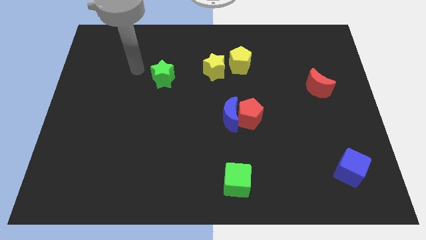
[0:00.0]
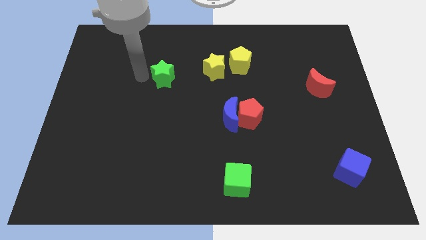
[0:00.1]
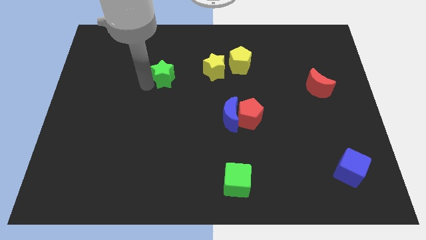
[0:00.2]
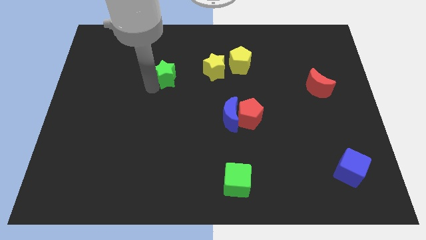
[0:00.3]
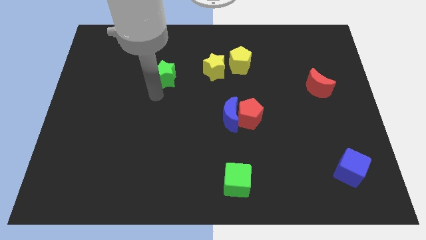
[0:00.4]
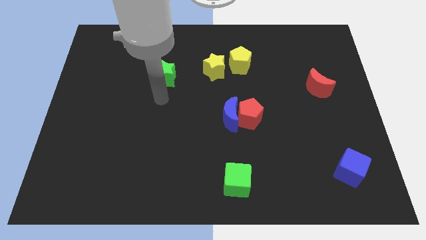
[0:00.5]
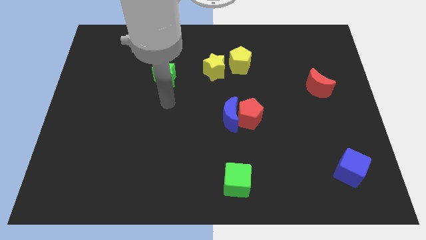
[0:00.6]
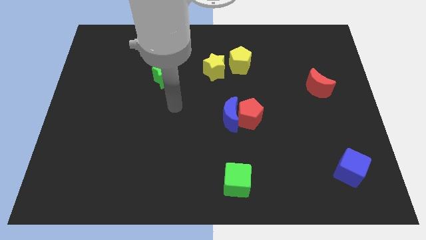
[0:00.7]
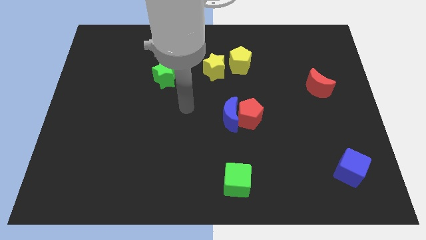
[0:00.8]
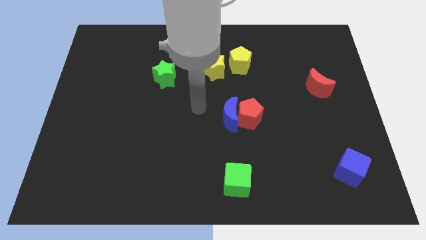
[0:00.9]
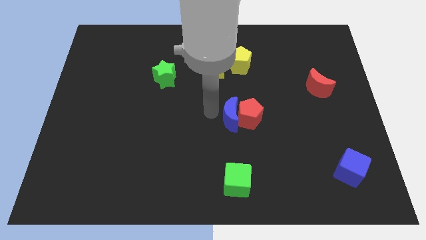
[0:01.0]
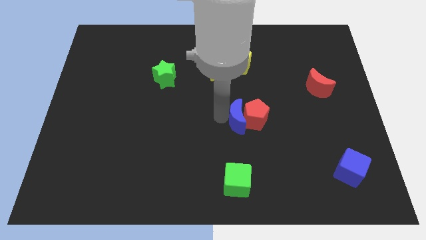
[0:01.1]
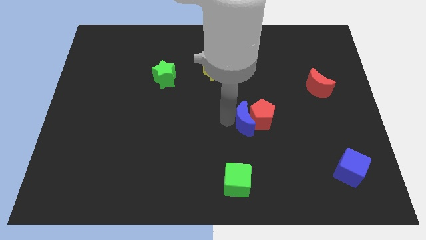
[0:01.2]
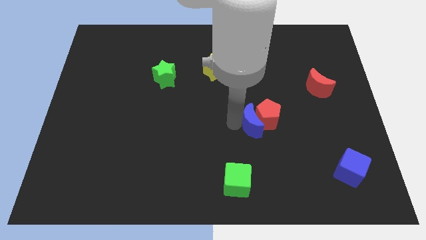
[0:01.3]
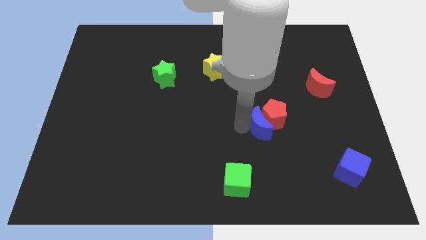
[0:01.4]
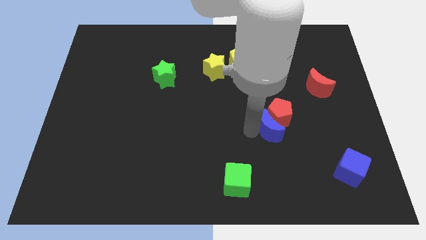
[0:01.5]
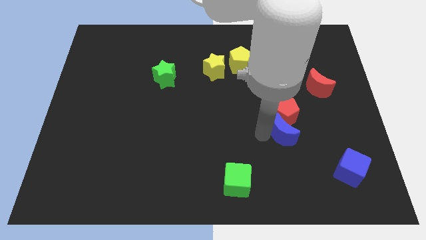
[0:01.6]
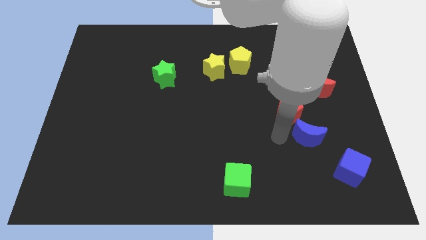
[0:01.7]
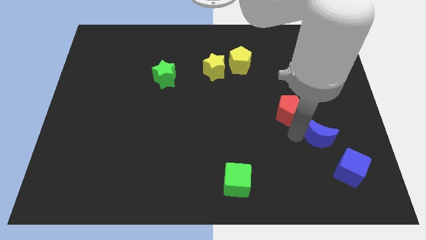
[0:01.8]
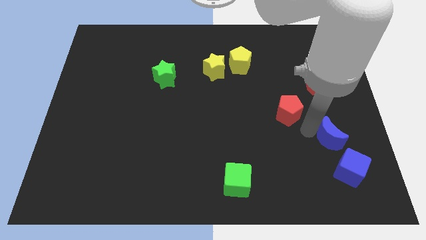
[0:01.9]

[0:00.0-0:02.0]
pull the red pentagon apart from the blue moon

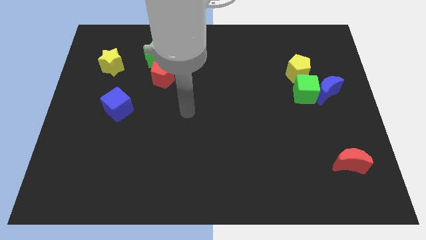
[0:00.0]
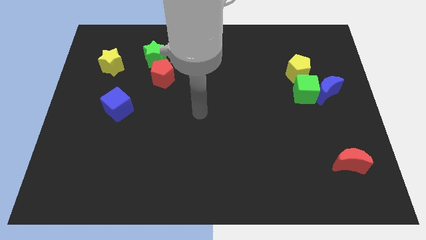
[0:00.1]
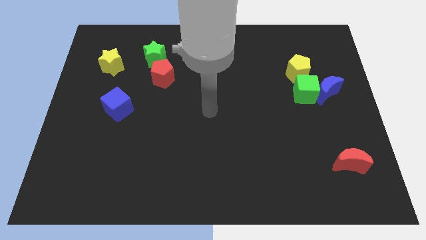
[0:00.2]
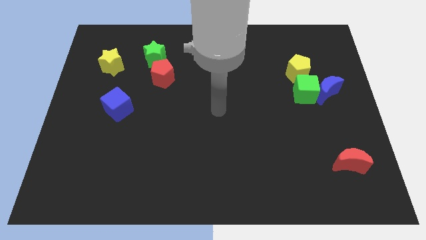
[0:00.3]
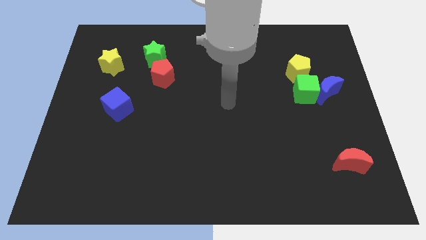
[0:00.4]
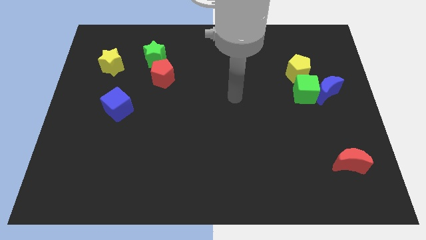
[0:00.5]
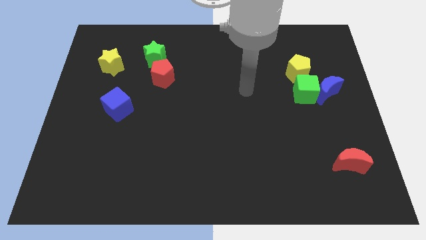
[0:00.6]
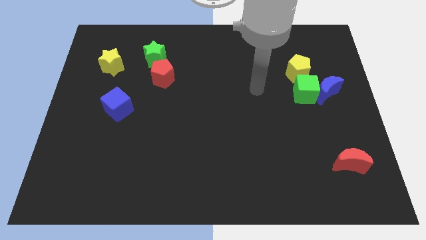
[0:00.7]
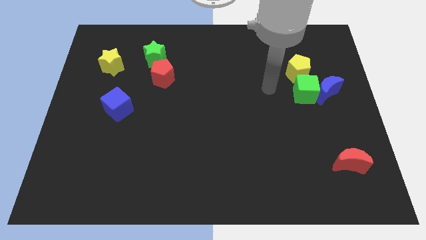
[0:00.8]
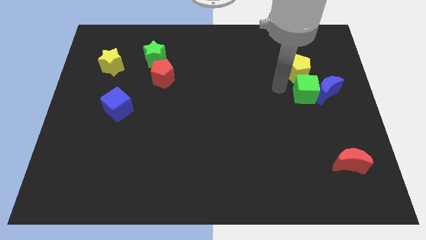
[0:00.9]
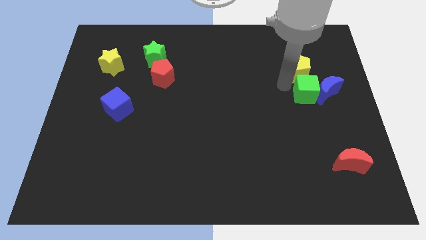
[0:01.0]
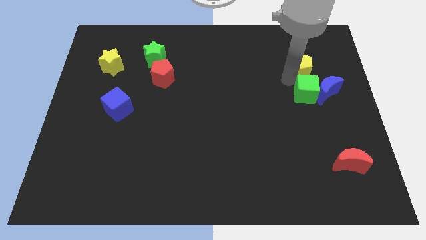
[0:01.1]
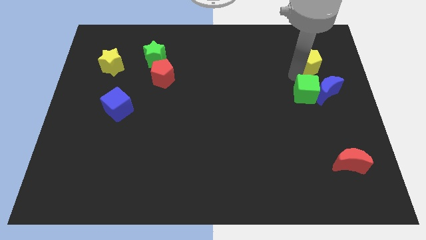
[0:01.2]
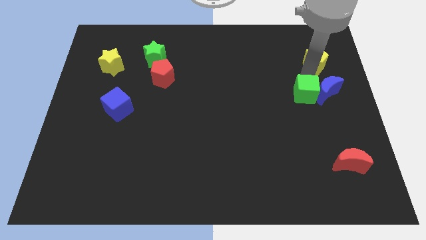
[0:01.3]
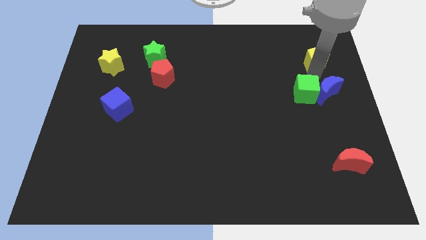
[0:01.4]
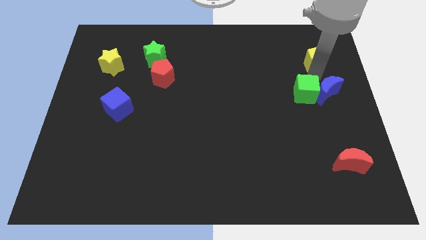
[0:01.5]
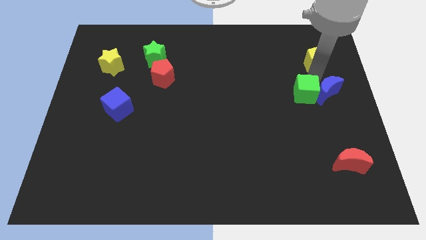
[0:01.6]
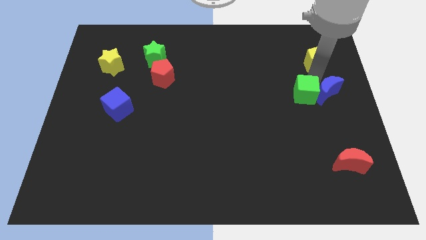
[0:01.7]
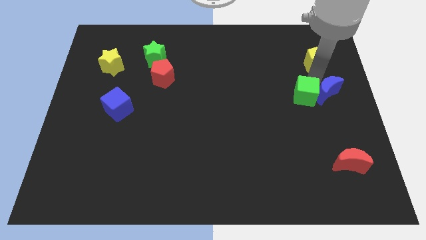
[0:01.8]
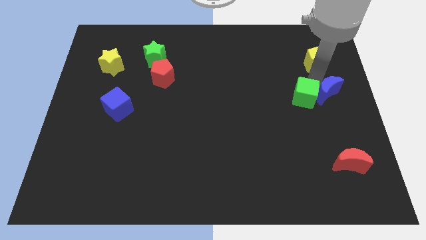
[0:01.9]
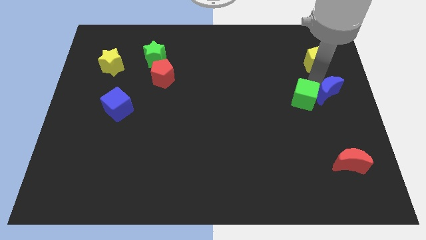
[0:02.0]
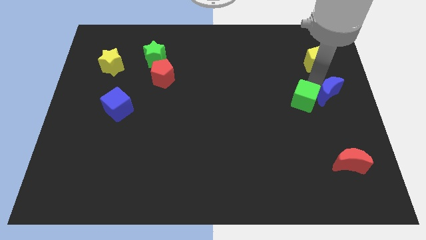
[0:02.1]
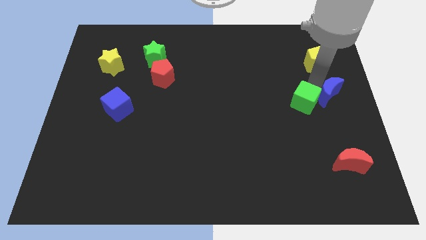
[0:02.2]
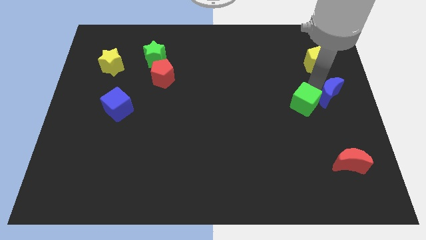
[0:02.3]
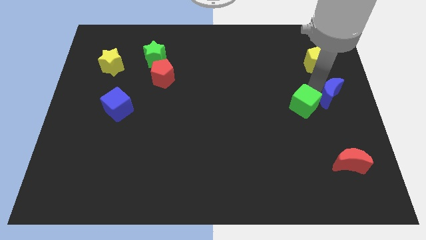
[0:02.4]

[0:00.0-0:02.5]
move the green cube away from the blue moon and yellow pentagon

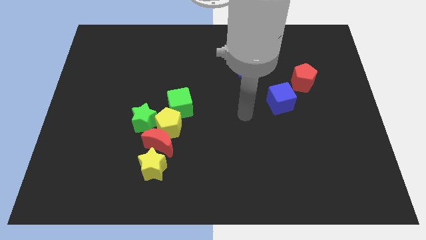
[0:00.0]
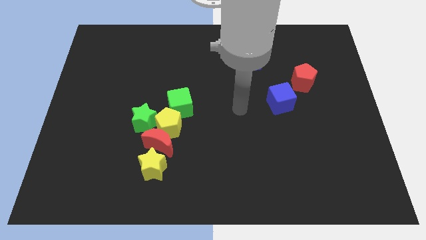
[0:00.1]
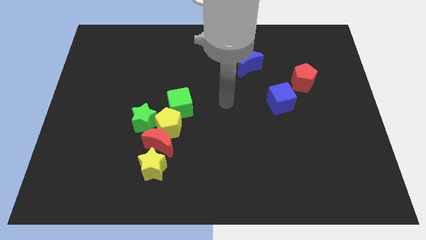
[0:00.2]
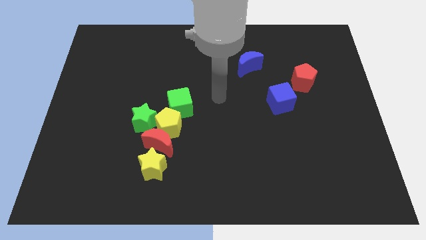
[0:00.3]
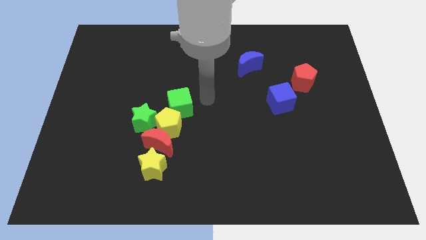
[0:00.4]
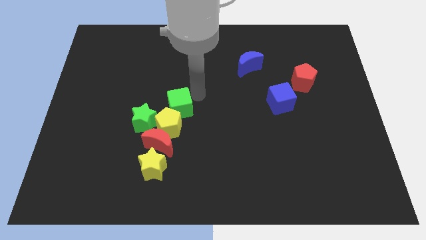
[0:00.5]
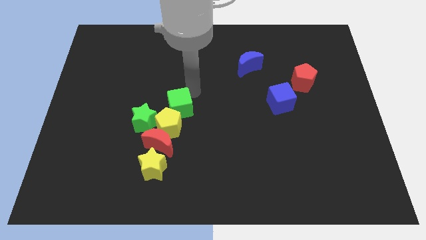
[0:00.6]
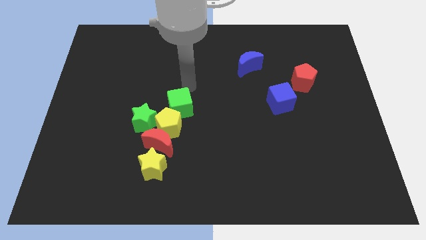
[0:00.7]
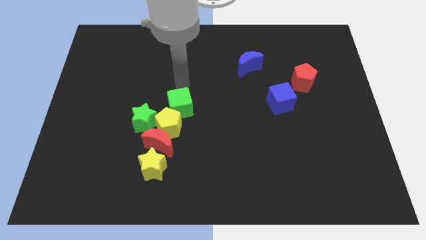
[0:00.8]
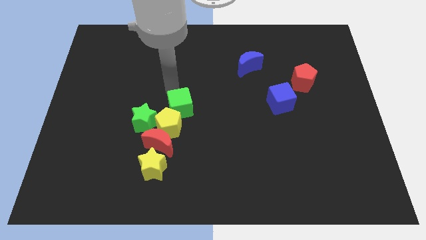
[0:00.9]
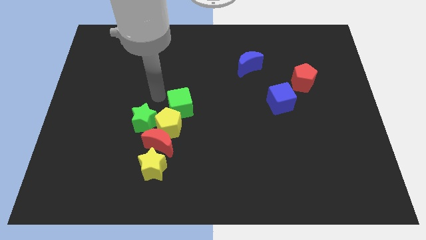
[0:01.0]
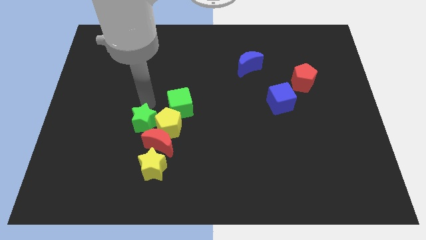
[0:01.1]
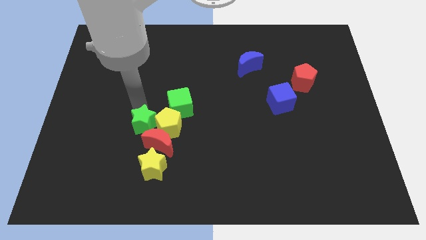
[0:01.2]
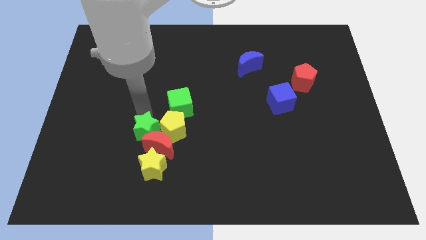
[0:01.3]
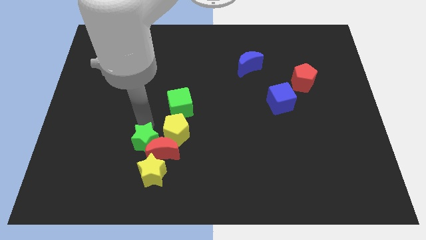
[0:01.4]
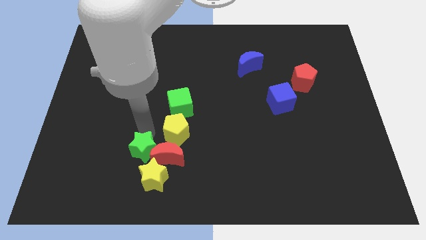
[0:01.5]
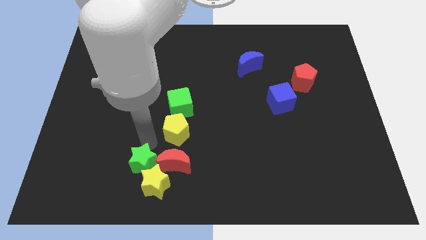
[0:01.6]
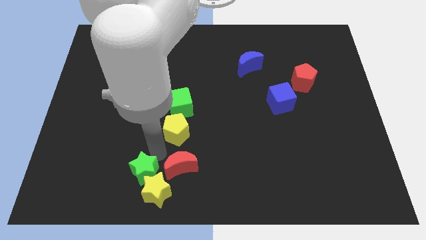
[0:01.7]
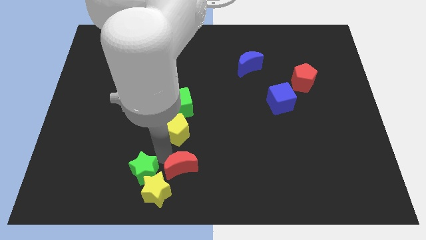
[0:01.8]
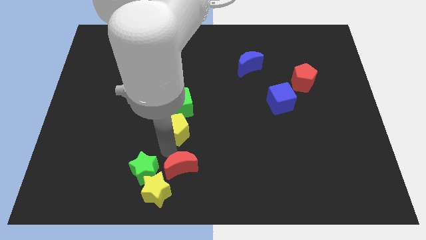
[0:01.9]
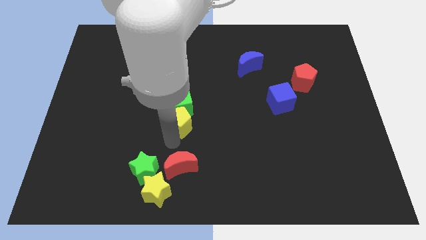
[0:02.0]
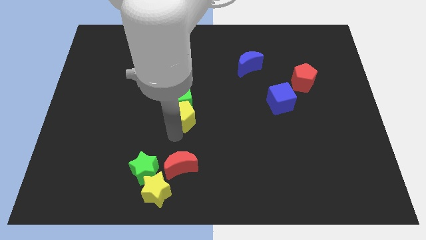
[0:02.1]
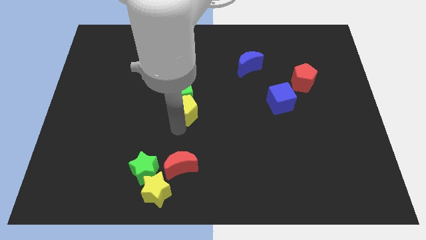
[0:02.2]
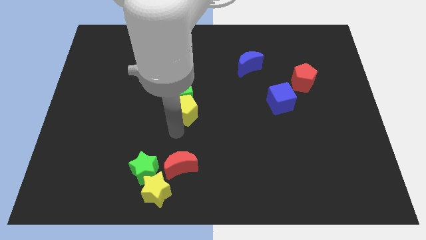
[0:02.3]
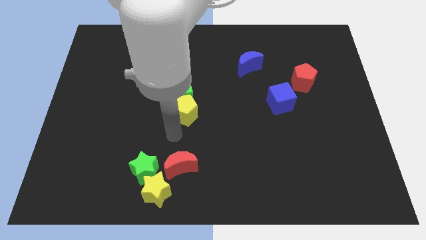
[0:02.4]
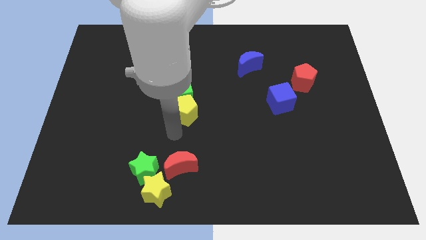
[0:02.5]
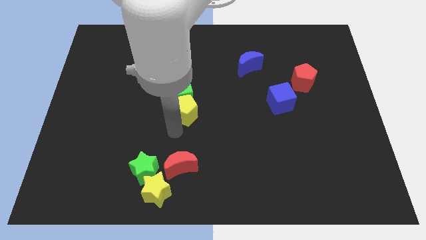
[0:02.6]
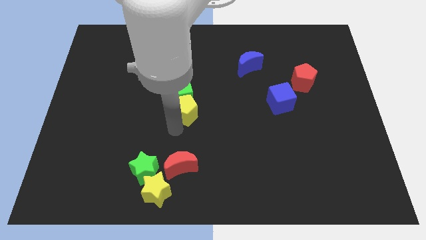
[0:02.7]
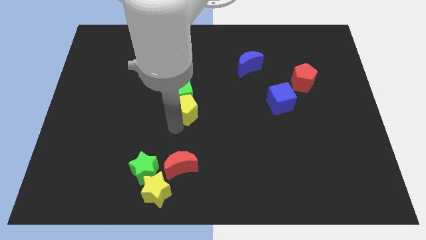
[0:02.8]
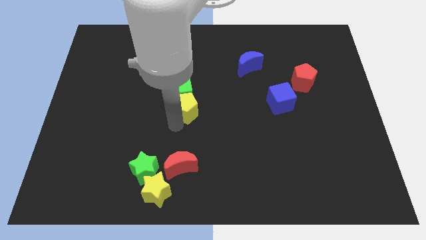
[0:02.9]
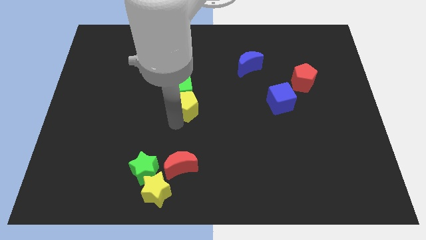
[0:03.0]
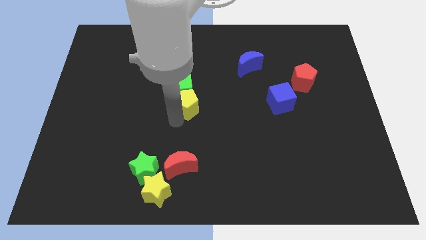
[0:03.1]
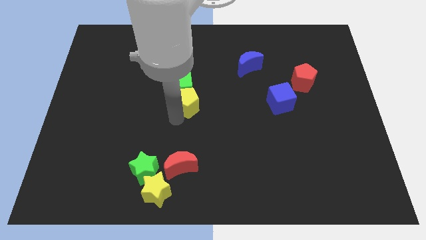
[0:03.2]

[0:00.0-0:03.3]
pull the yellow pentagon apart from the group

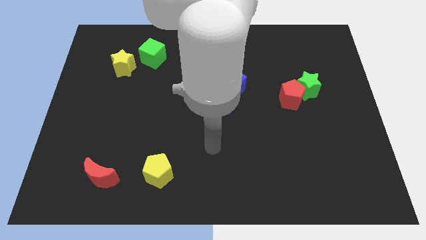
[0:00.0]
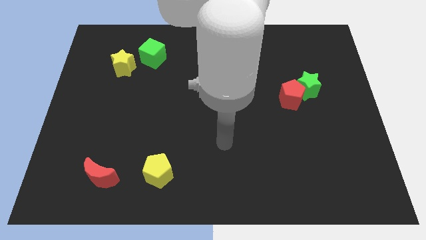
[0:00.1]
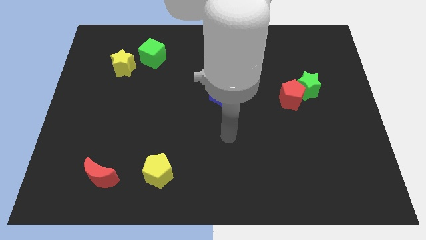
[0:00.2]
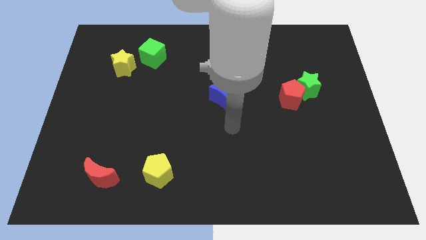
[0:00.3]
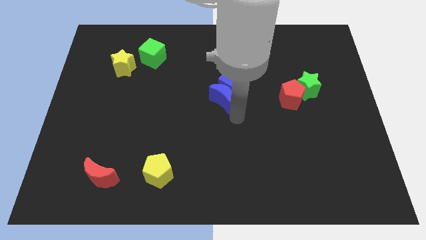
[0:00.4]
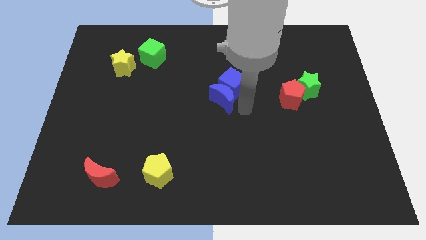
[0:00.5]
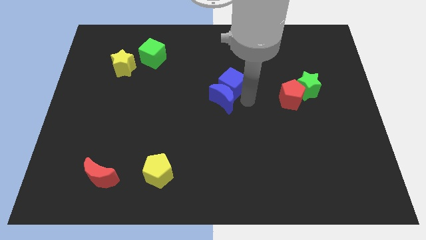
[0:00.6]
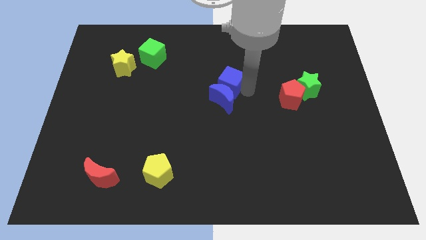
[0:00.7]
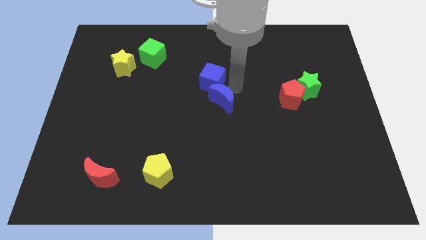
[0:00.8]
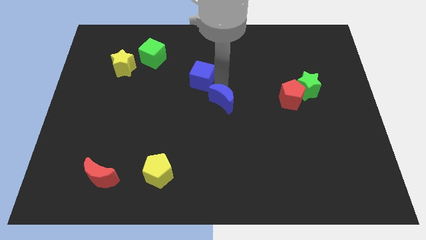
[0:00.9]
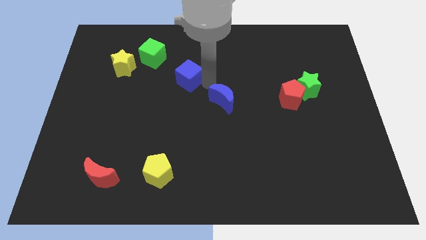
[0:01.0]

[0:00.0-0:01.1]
move the blue moon away from the blue cube

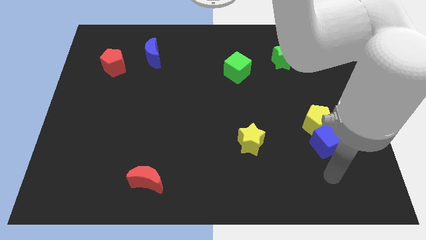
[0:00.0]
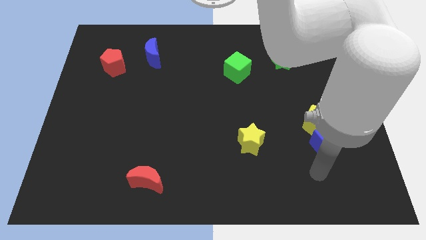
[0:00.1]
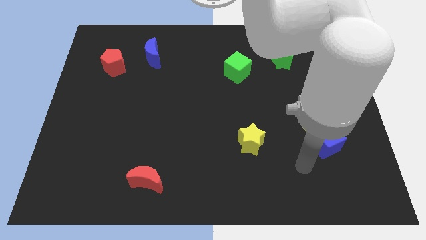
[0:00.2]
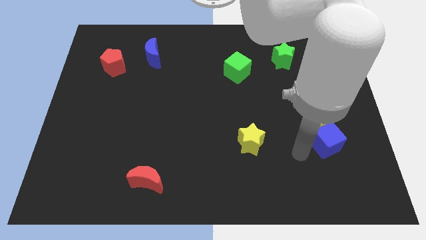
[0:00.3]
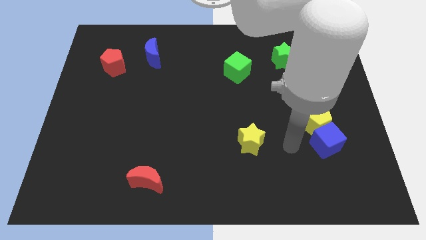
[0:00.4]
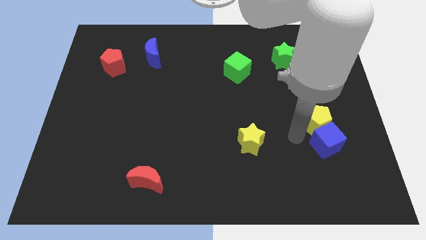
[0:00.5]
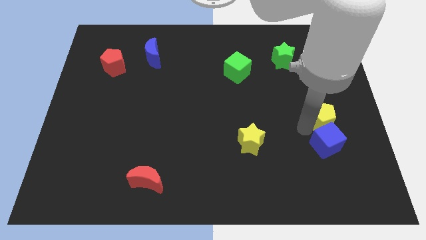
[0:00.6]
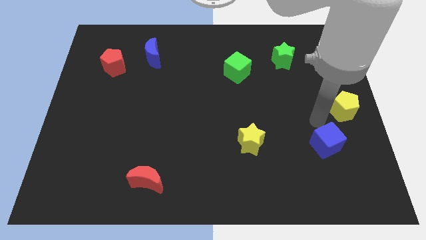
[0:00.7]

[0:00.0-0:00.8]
pull the blue cube apart from the yellow pentagon
